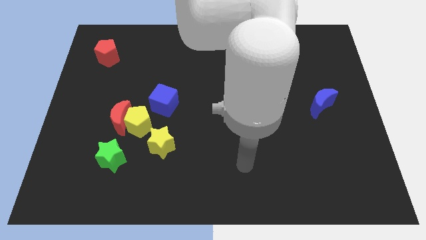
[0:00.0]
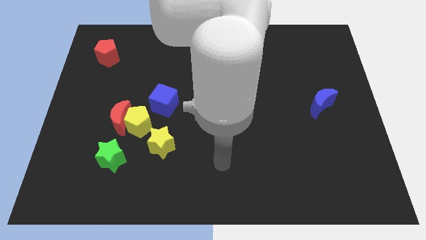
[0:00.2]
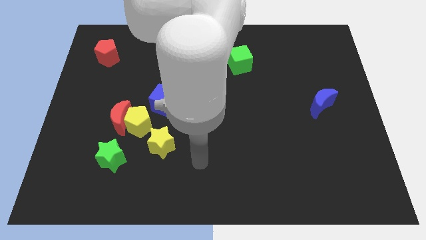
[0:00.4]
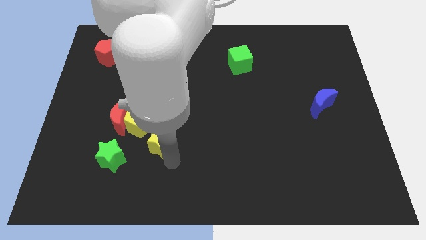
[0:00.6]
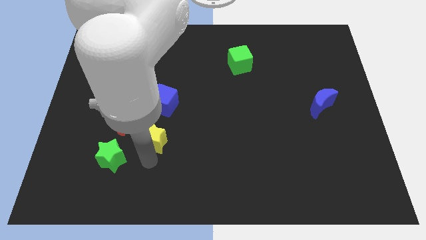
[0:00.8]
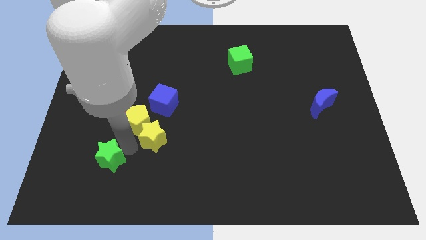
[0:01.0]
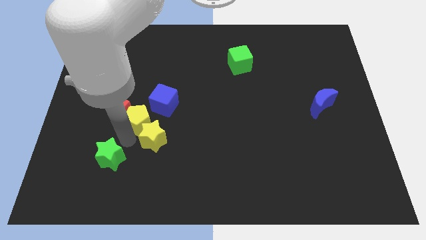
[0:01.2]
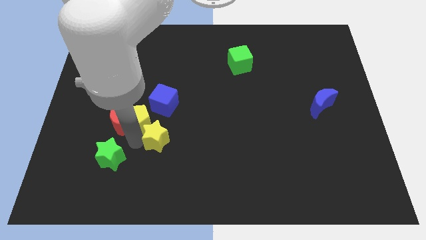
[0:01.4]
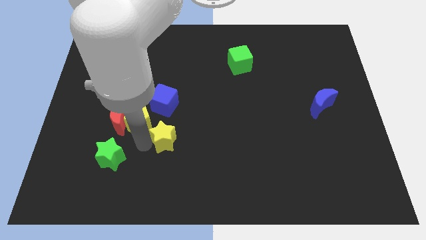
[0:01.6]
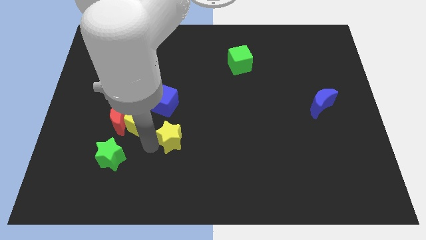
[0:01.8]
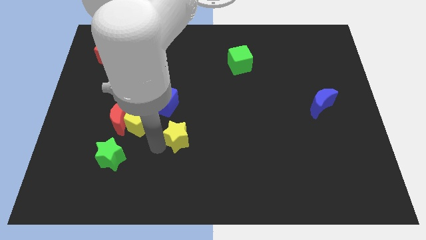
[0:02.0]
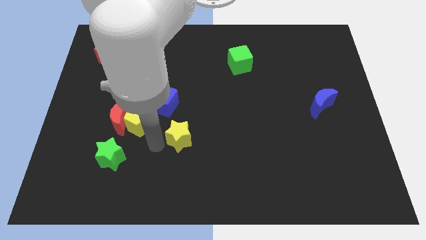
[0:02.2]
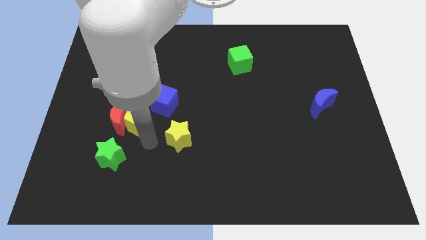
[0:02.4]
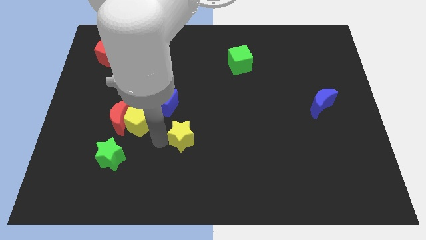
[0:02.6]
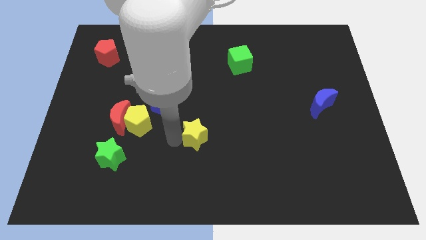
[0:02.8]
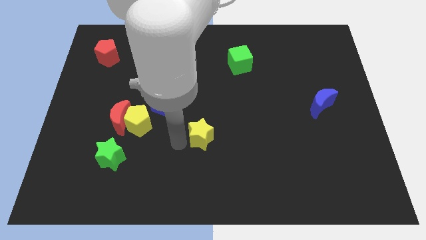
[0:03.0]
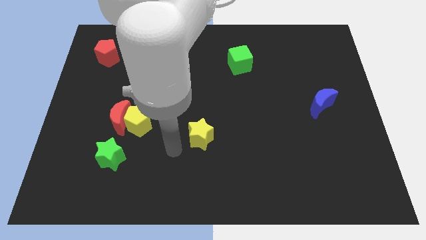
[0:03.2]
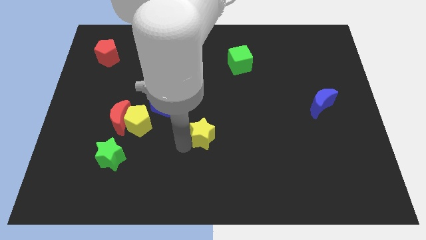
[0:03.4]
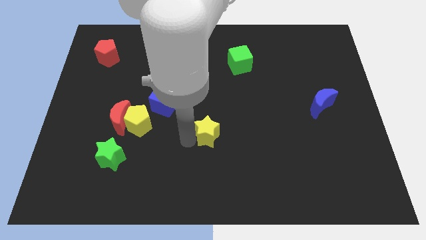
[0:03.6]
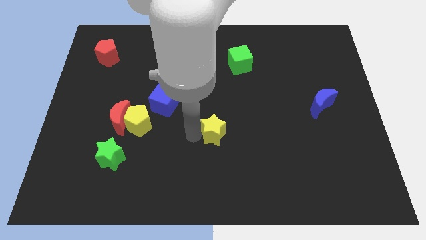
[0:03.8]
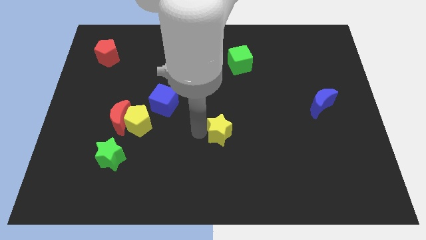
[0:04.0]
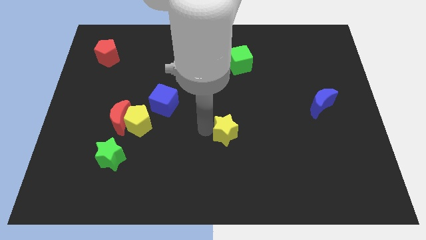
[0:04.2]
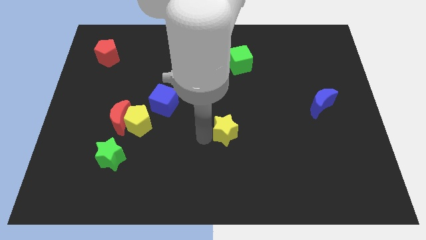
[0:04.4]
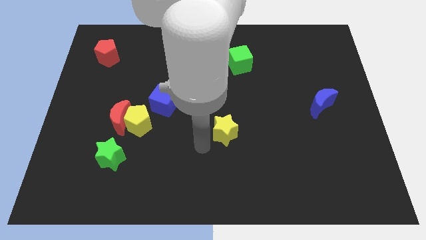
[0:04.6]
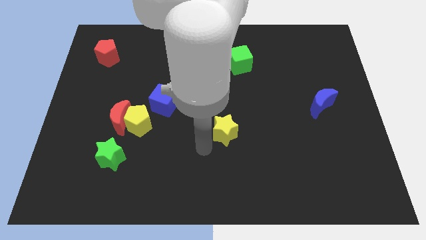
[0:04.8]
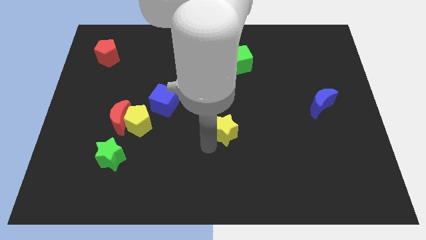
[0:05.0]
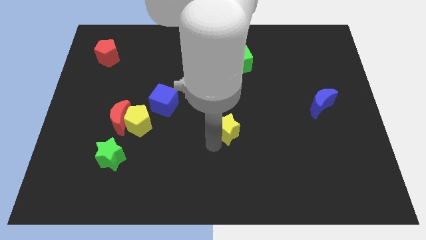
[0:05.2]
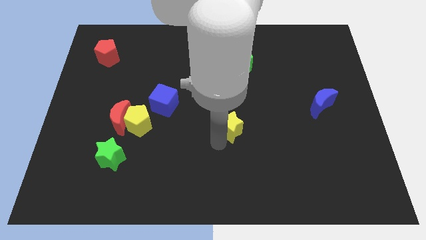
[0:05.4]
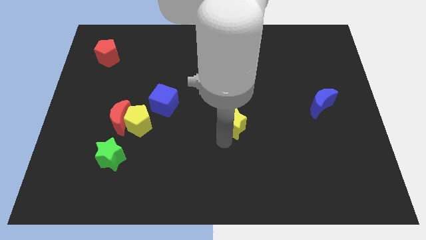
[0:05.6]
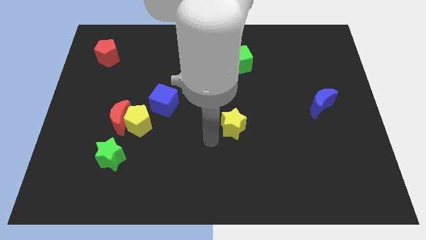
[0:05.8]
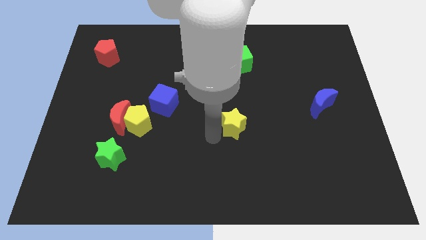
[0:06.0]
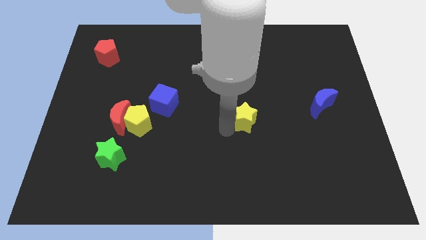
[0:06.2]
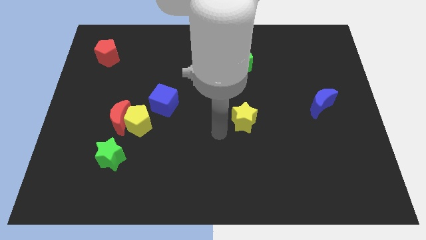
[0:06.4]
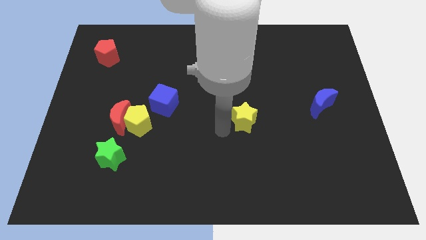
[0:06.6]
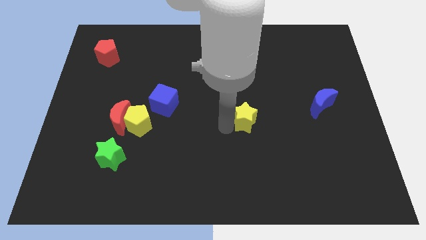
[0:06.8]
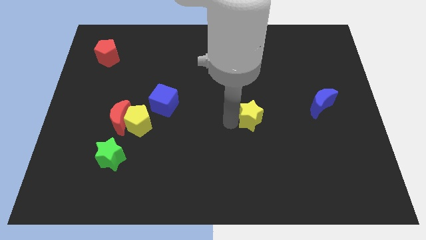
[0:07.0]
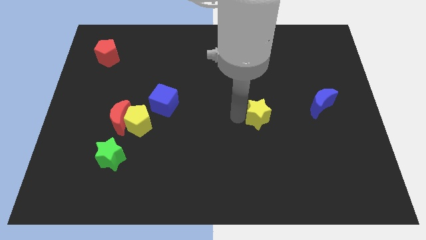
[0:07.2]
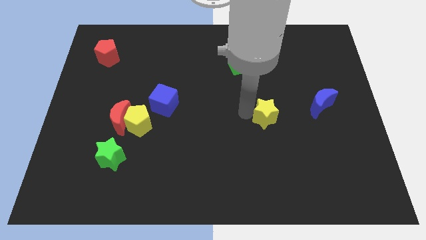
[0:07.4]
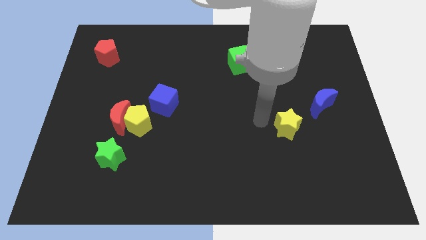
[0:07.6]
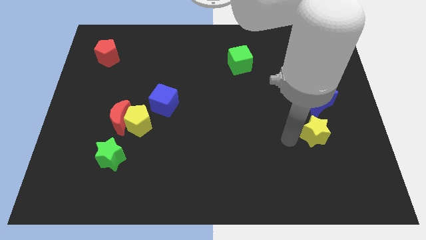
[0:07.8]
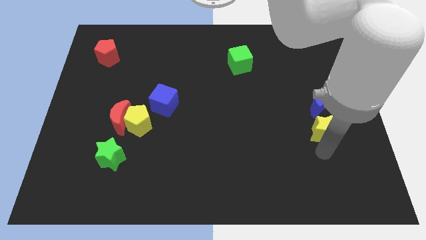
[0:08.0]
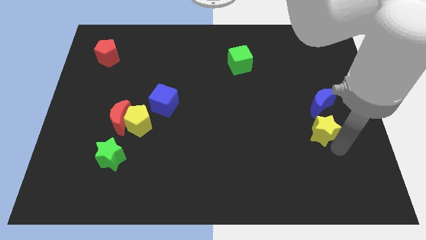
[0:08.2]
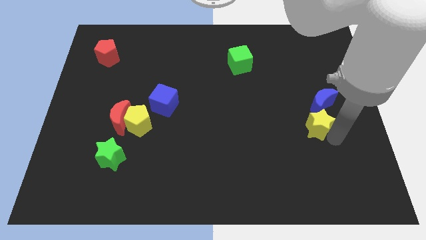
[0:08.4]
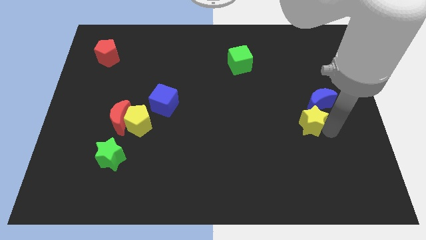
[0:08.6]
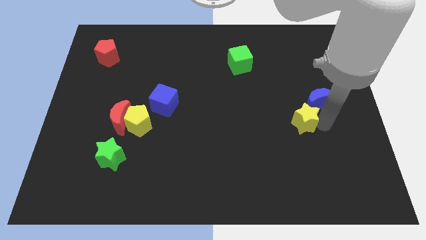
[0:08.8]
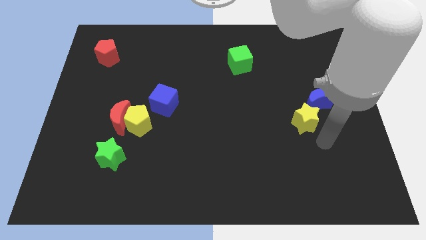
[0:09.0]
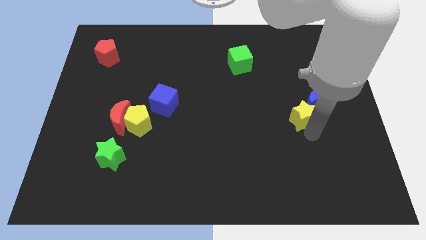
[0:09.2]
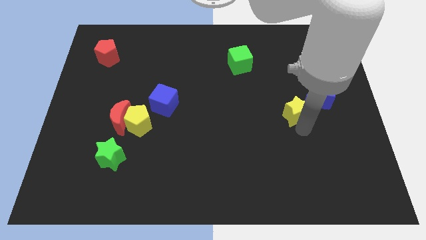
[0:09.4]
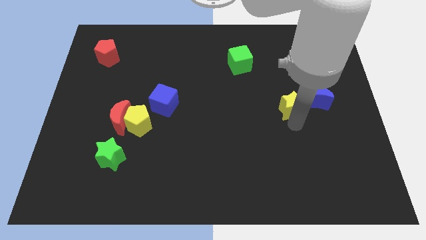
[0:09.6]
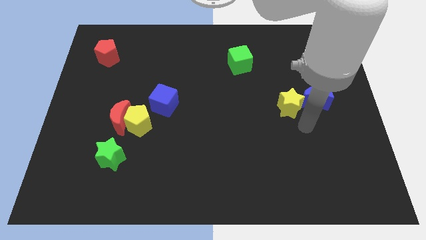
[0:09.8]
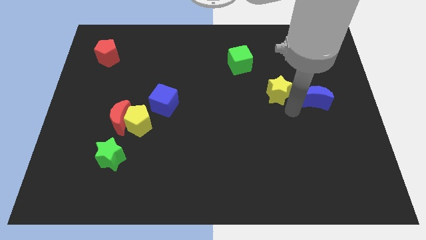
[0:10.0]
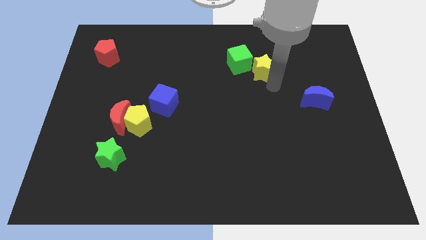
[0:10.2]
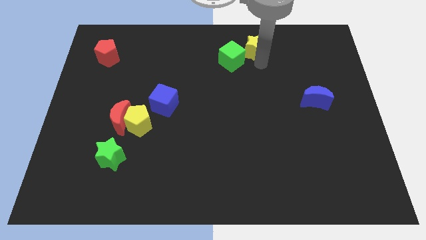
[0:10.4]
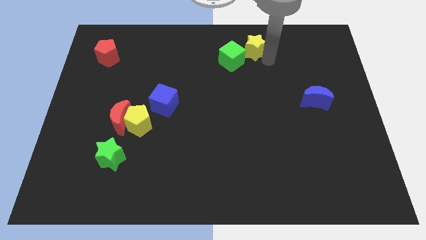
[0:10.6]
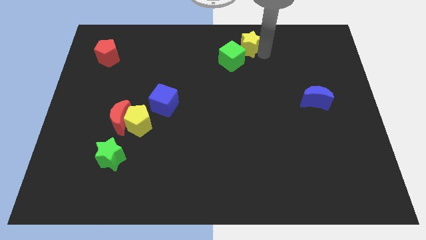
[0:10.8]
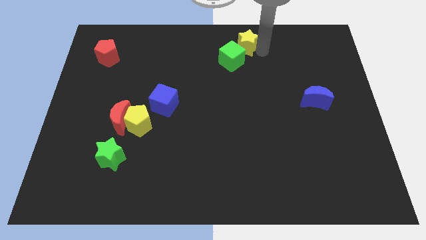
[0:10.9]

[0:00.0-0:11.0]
put the yellow star to the towards your base
